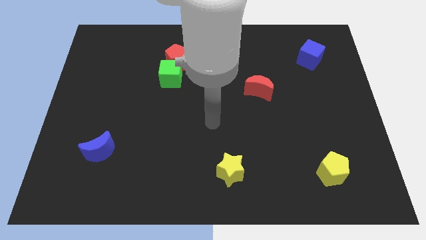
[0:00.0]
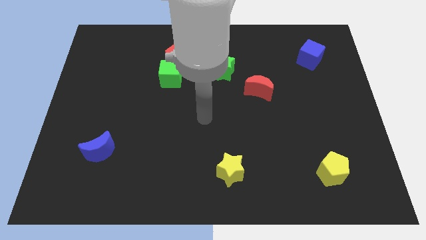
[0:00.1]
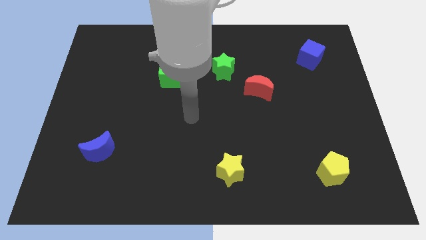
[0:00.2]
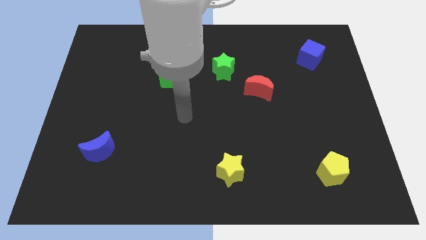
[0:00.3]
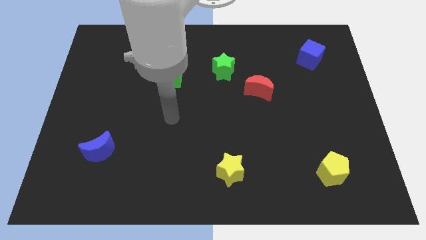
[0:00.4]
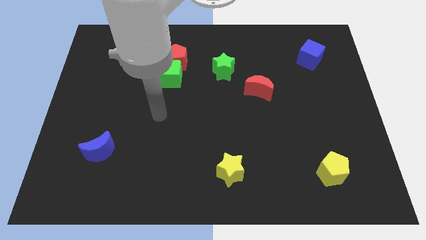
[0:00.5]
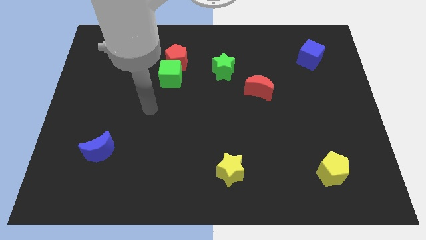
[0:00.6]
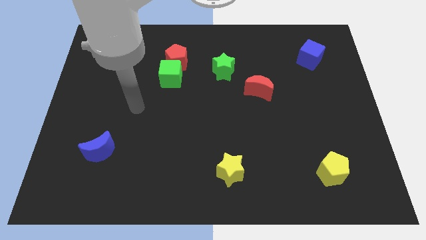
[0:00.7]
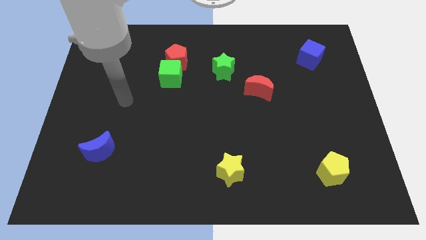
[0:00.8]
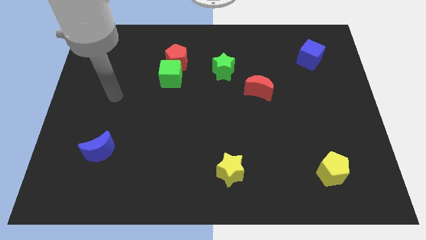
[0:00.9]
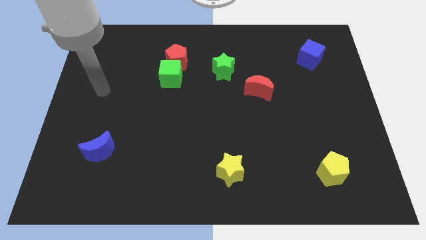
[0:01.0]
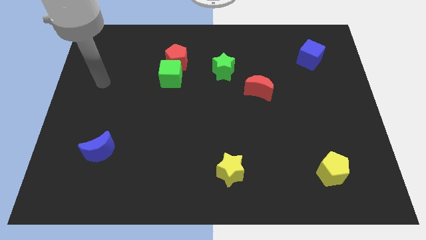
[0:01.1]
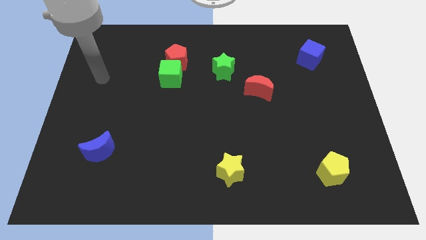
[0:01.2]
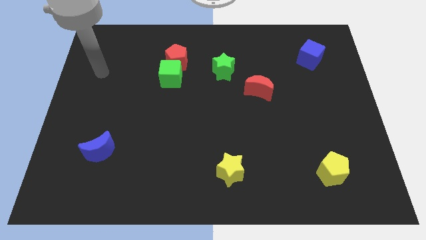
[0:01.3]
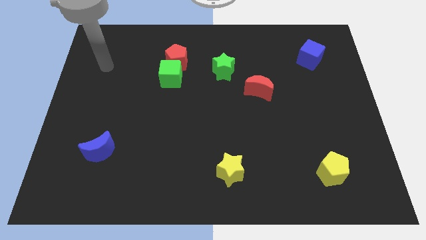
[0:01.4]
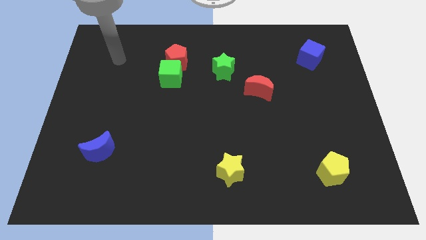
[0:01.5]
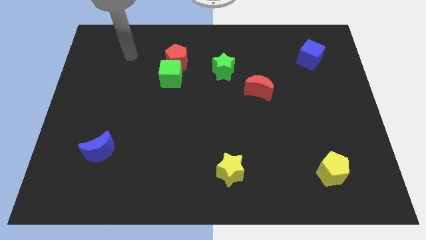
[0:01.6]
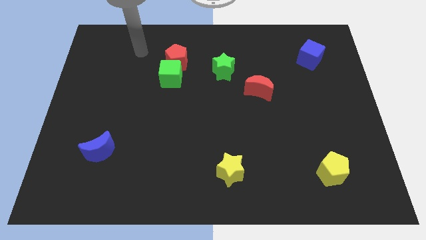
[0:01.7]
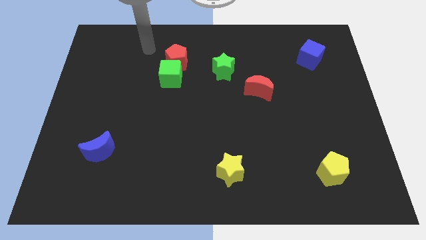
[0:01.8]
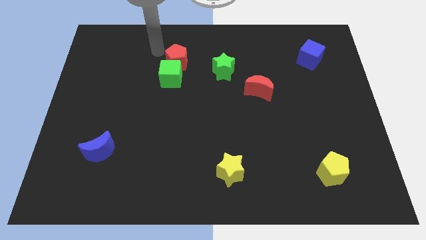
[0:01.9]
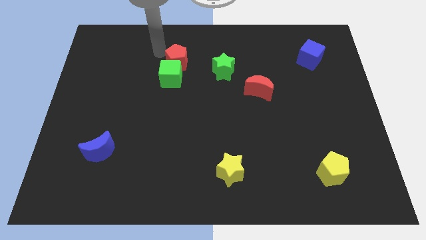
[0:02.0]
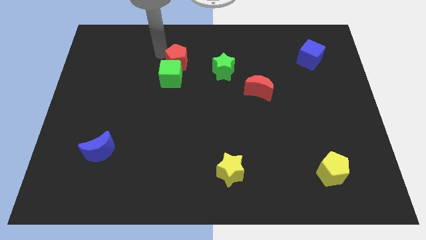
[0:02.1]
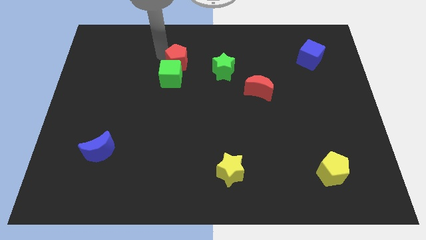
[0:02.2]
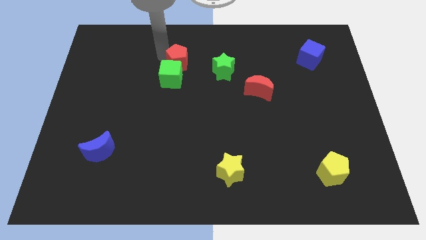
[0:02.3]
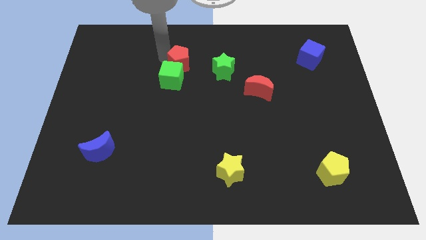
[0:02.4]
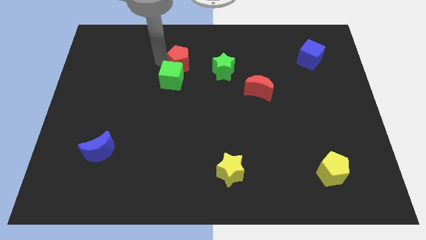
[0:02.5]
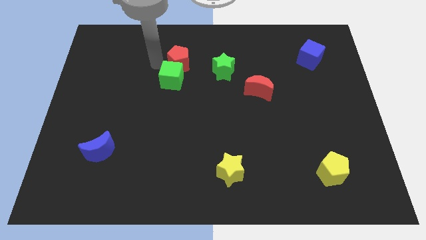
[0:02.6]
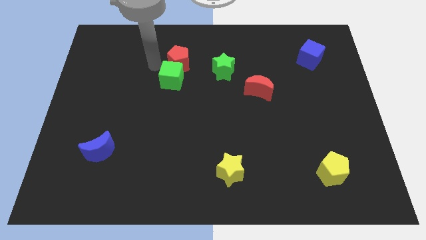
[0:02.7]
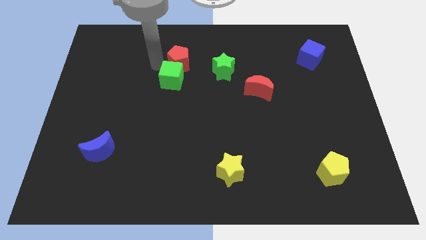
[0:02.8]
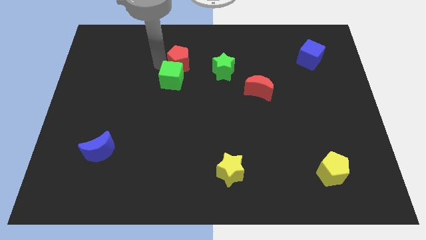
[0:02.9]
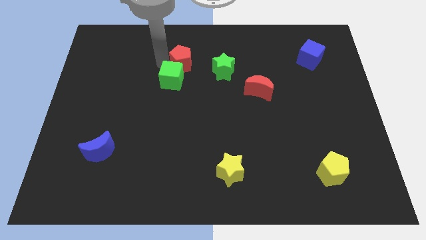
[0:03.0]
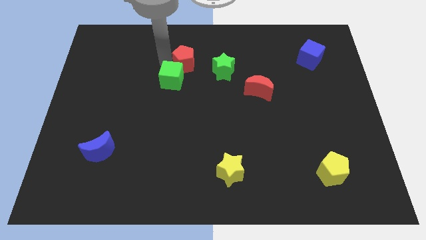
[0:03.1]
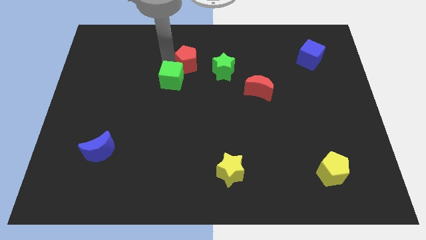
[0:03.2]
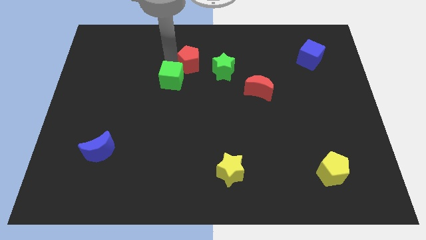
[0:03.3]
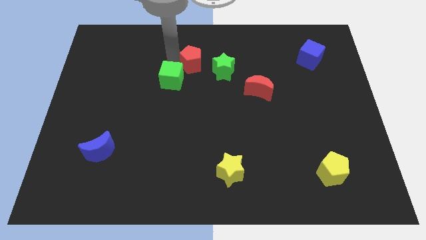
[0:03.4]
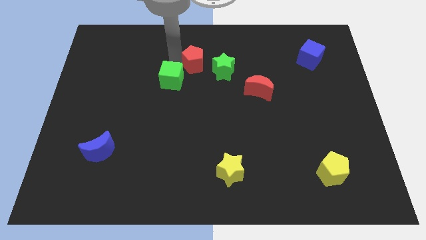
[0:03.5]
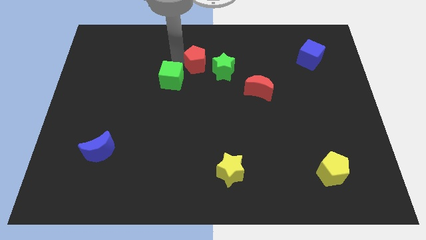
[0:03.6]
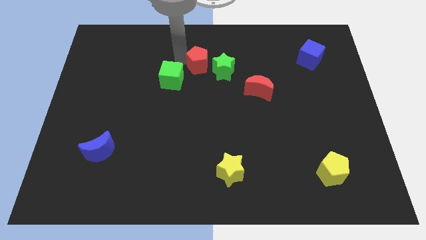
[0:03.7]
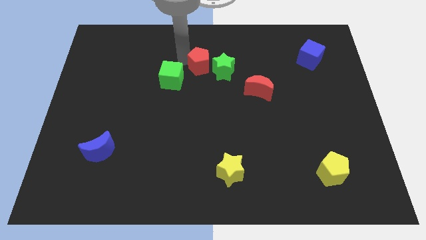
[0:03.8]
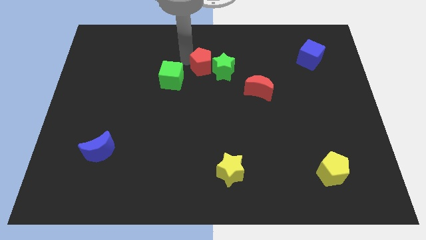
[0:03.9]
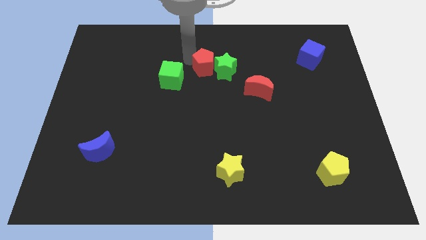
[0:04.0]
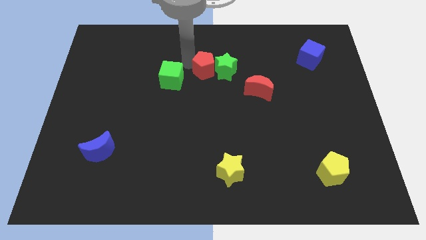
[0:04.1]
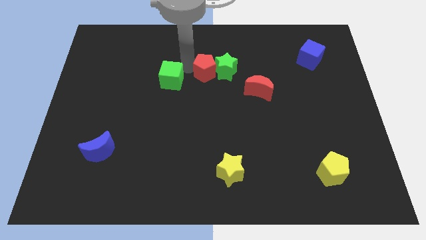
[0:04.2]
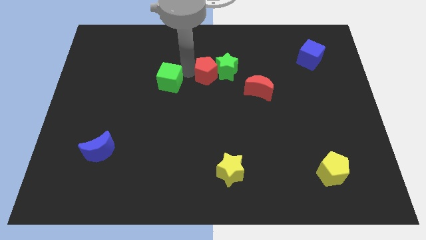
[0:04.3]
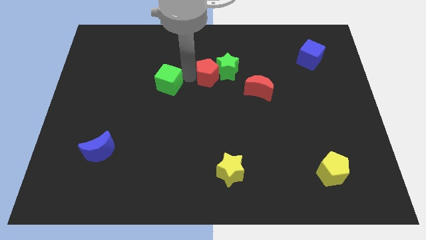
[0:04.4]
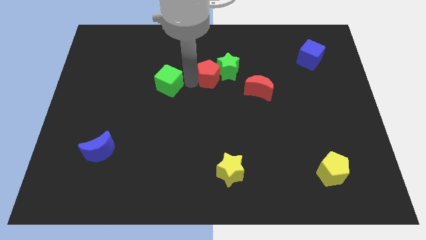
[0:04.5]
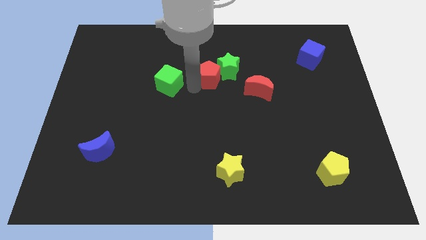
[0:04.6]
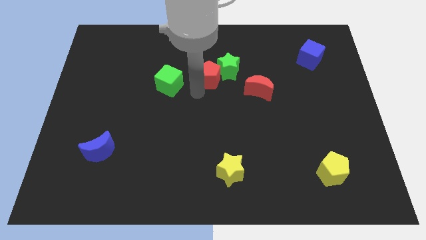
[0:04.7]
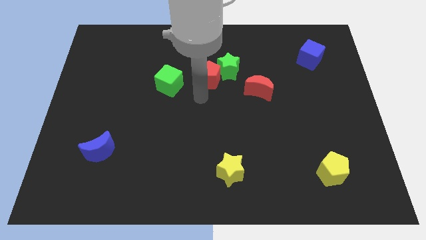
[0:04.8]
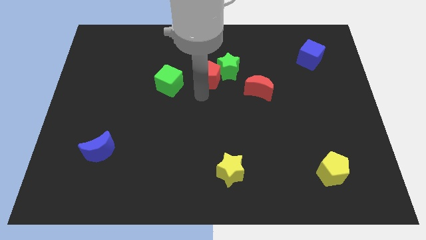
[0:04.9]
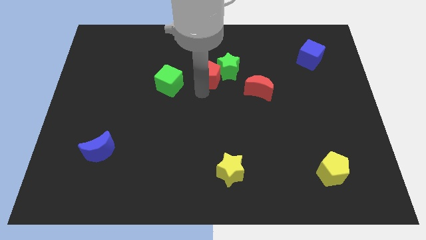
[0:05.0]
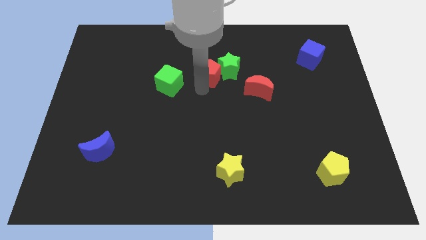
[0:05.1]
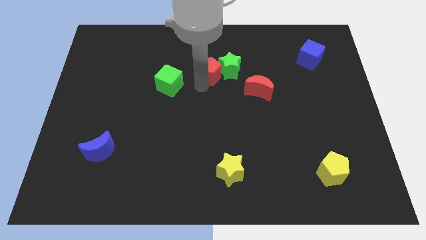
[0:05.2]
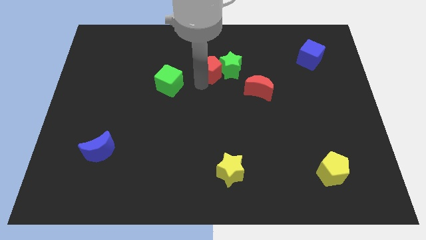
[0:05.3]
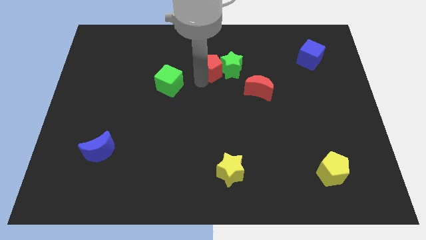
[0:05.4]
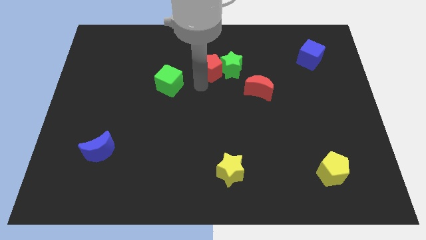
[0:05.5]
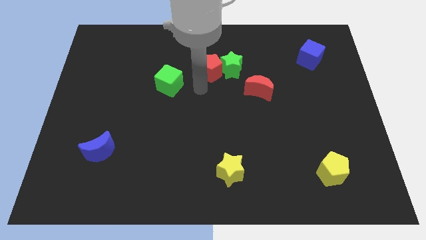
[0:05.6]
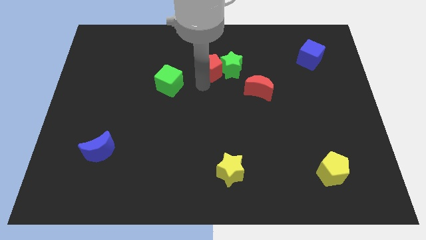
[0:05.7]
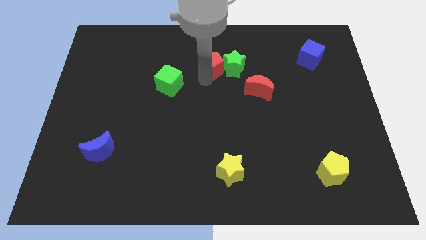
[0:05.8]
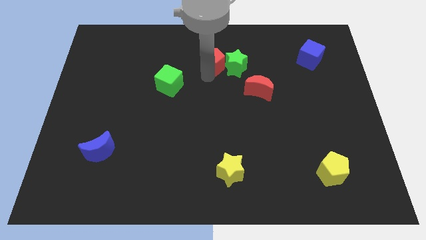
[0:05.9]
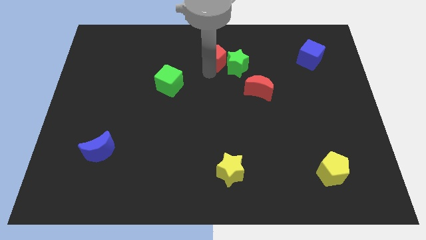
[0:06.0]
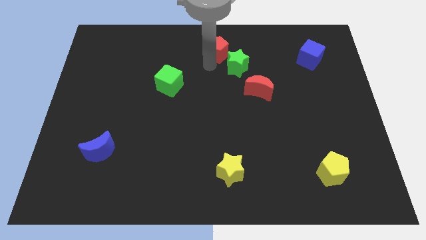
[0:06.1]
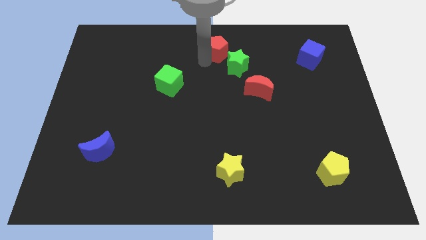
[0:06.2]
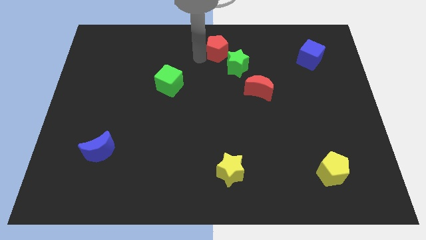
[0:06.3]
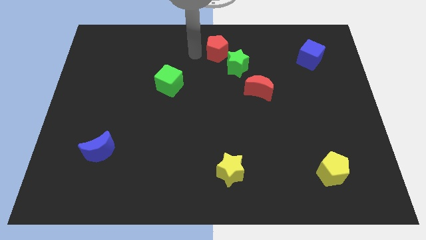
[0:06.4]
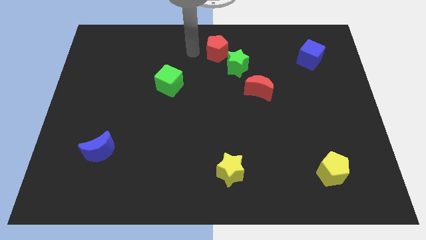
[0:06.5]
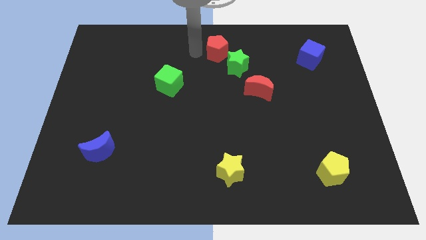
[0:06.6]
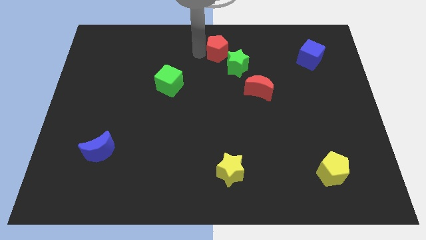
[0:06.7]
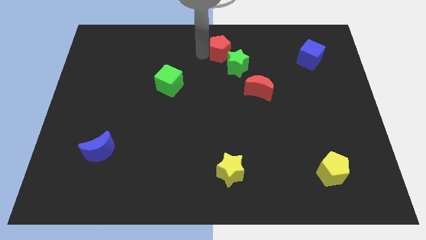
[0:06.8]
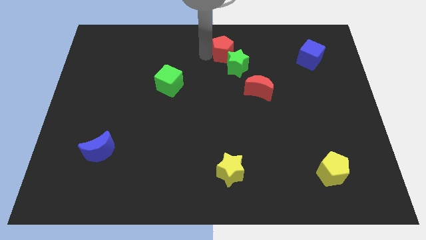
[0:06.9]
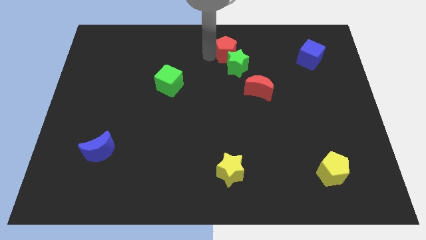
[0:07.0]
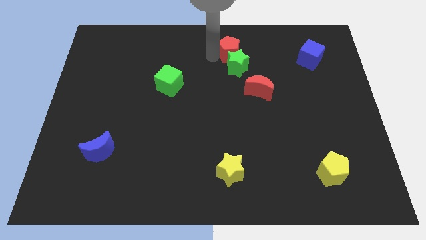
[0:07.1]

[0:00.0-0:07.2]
slide the red pentagon to the top right side of the green star

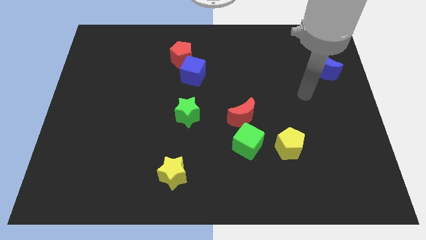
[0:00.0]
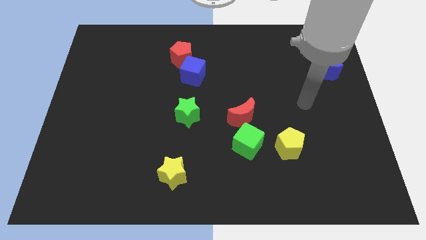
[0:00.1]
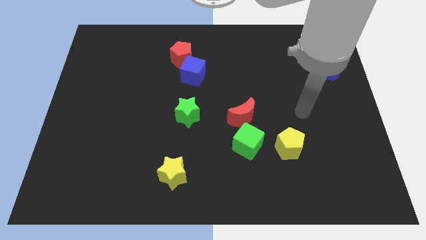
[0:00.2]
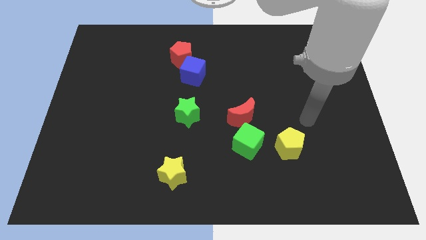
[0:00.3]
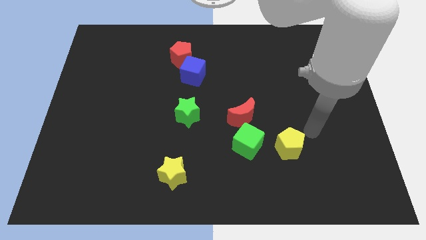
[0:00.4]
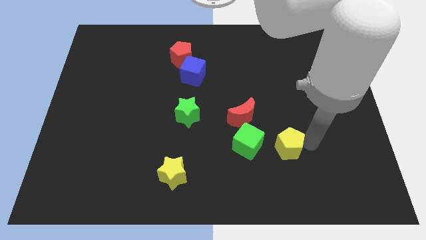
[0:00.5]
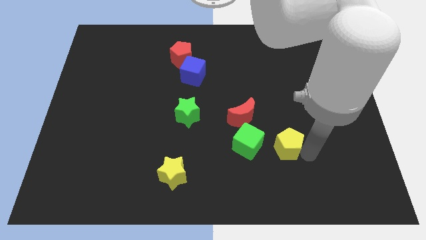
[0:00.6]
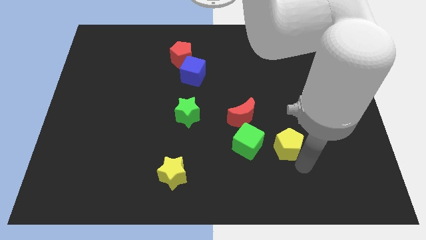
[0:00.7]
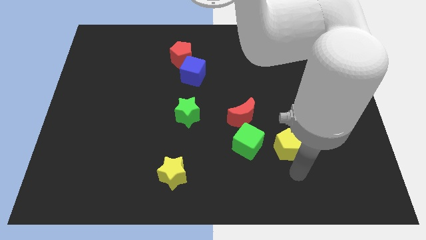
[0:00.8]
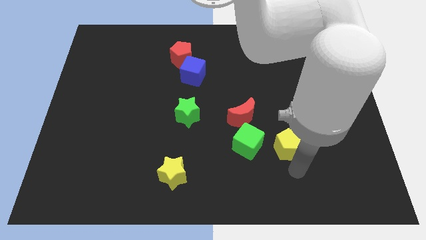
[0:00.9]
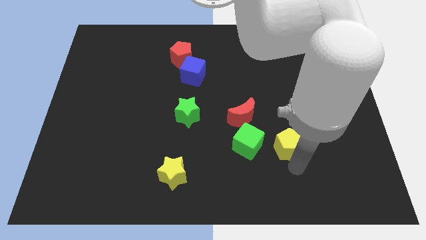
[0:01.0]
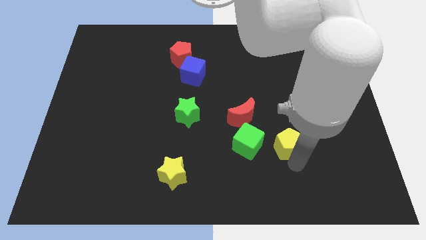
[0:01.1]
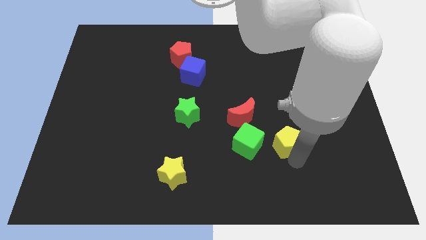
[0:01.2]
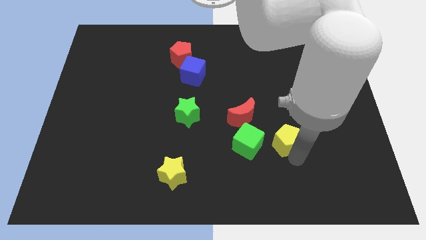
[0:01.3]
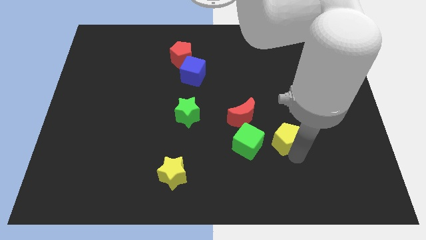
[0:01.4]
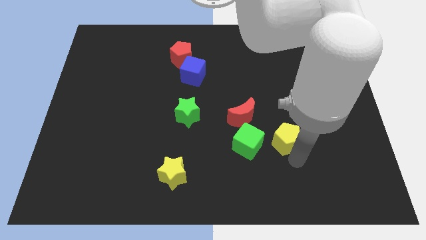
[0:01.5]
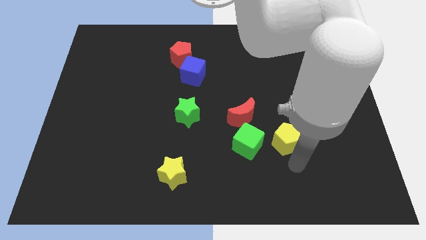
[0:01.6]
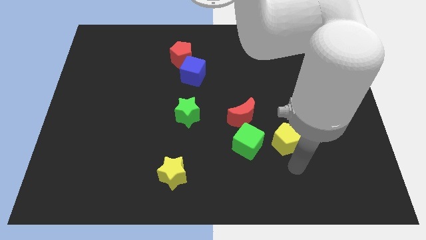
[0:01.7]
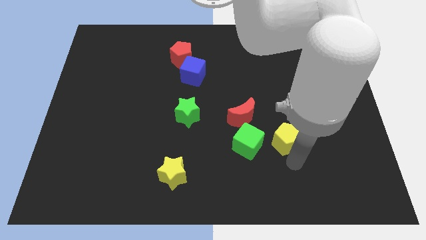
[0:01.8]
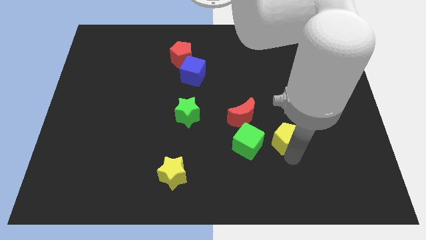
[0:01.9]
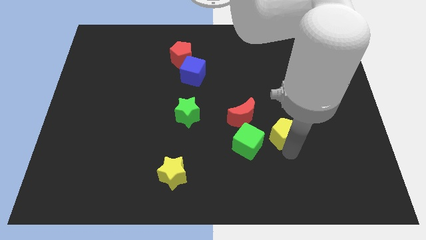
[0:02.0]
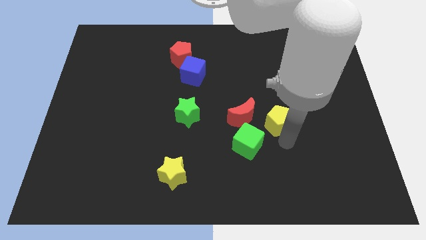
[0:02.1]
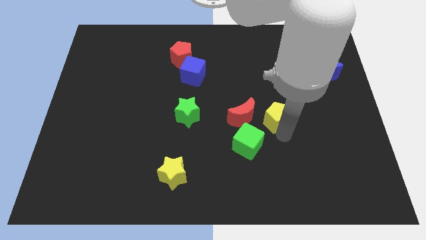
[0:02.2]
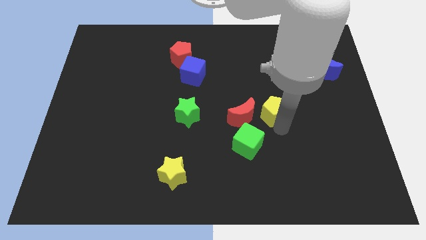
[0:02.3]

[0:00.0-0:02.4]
push the yellow pentagon to the top right side of the red moon
